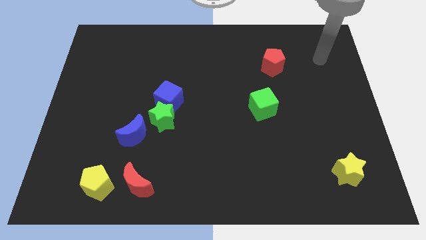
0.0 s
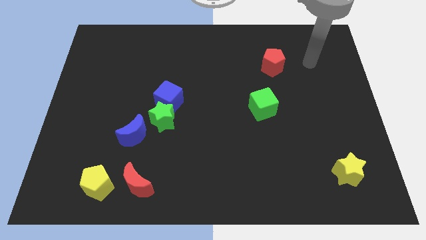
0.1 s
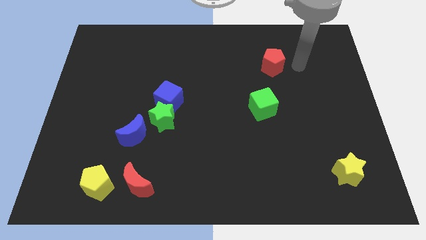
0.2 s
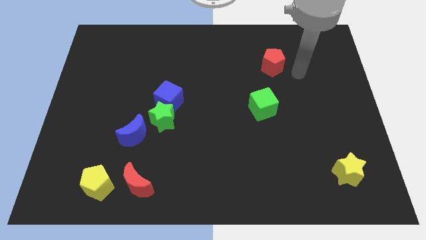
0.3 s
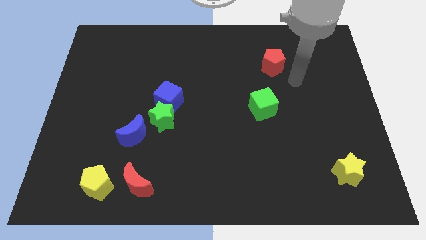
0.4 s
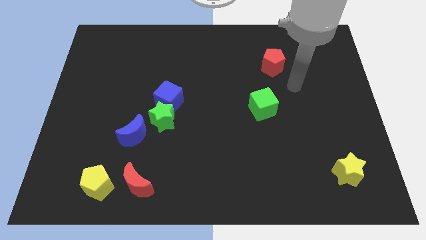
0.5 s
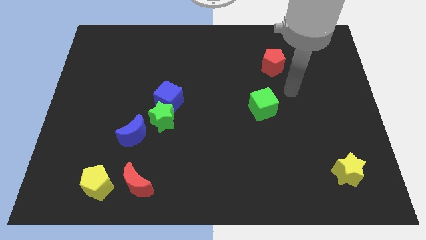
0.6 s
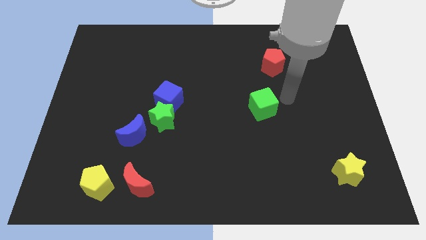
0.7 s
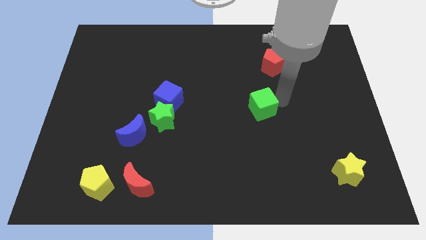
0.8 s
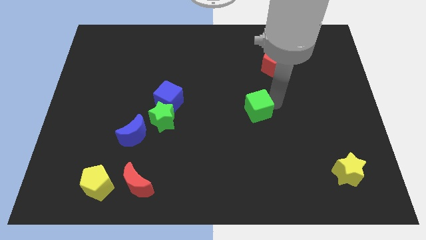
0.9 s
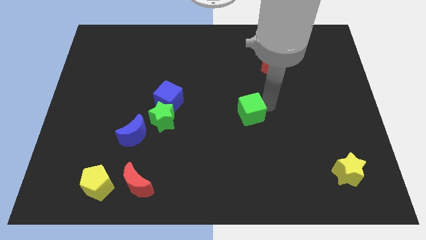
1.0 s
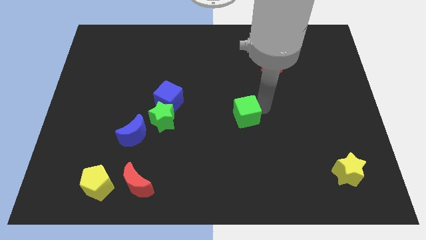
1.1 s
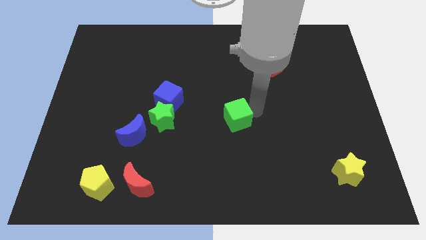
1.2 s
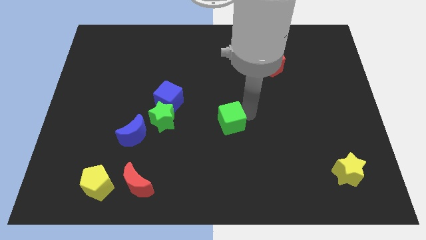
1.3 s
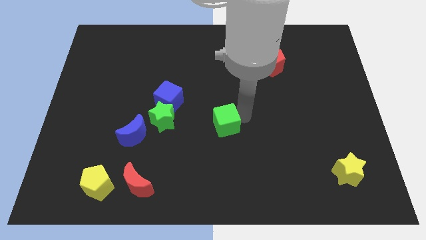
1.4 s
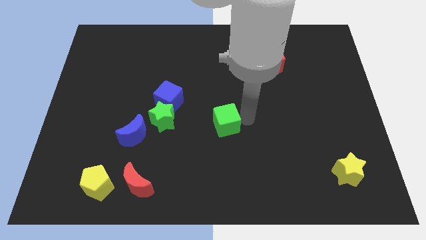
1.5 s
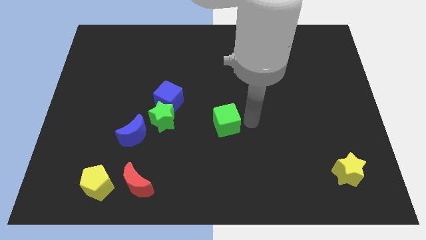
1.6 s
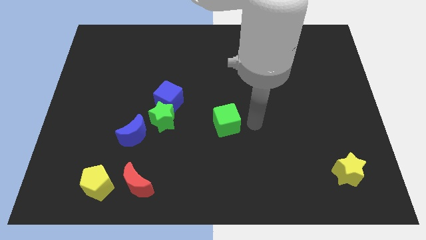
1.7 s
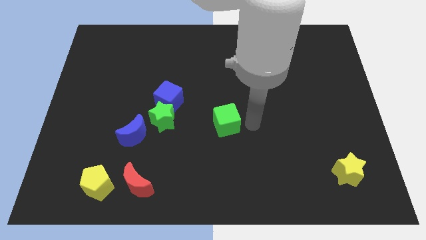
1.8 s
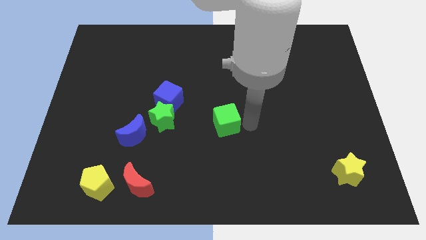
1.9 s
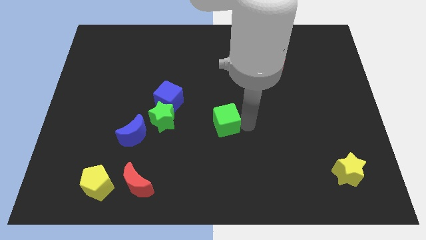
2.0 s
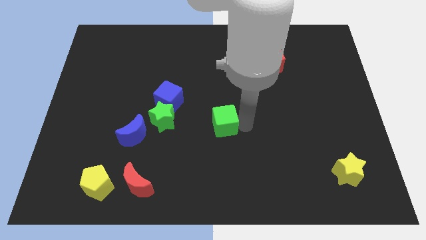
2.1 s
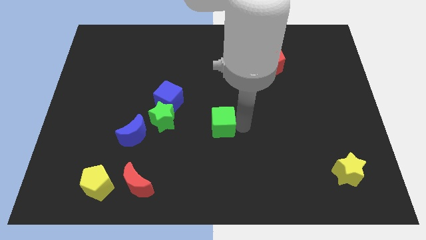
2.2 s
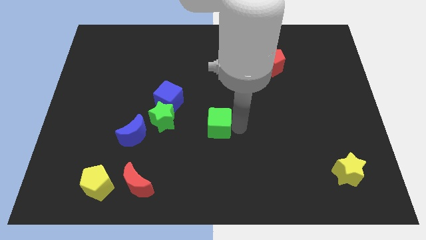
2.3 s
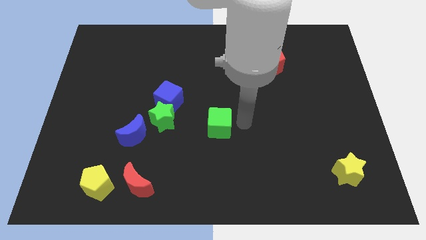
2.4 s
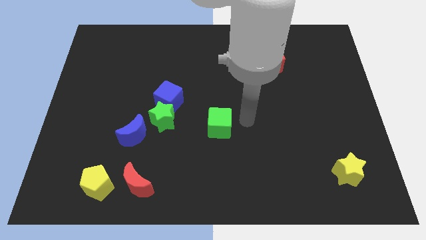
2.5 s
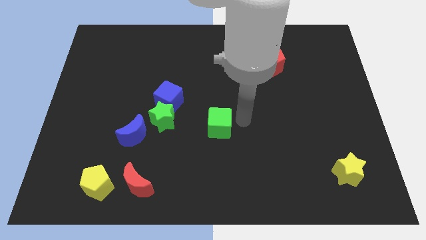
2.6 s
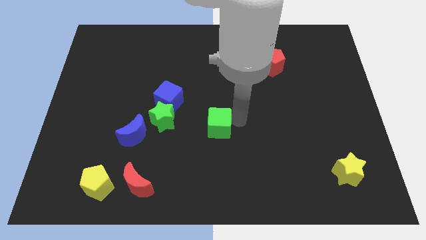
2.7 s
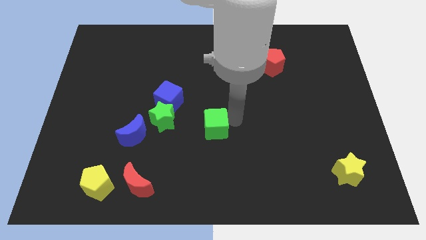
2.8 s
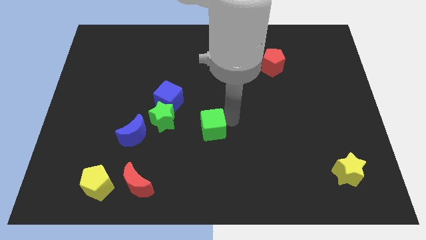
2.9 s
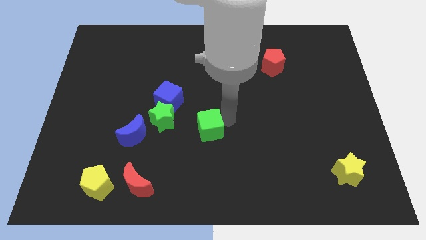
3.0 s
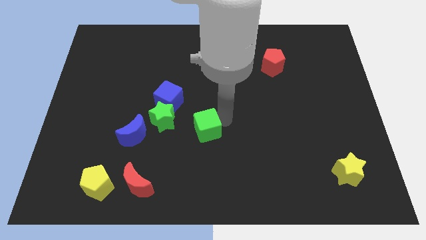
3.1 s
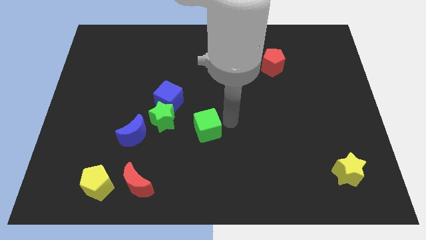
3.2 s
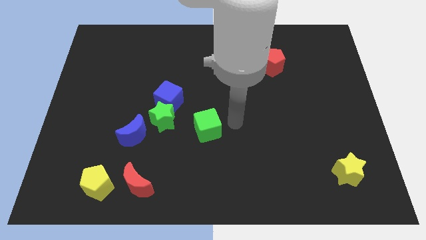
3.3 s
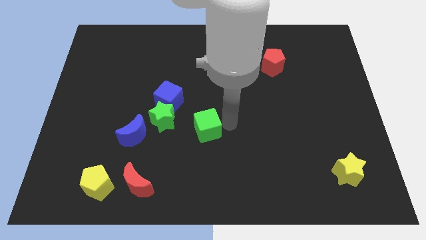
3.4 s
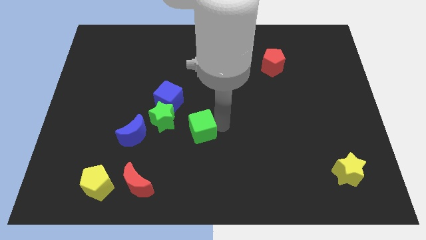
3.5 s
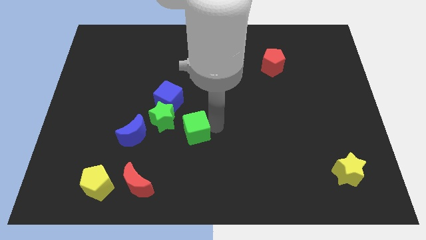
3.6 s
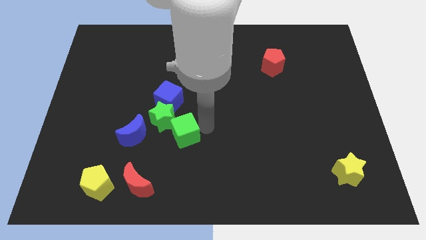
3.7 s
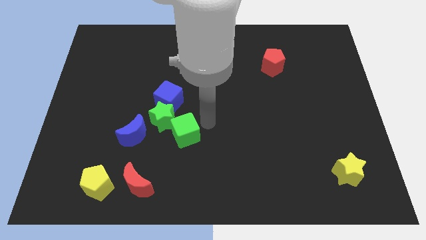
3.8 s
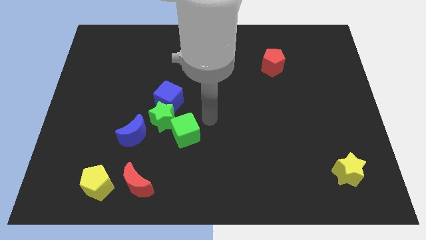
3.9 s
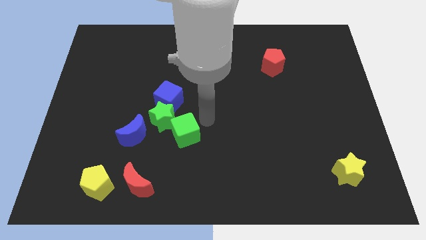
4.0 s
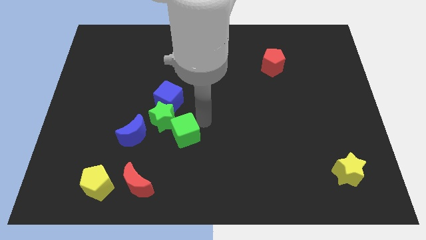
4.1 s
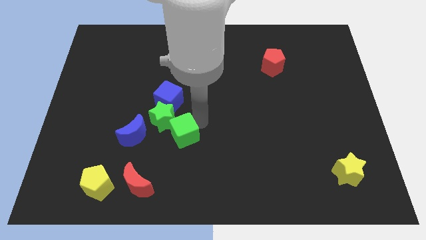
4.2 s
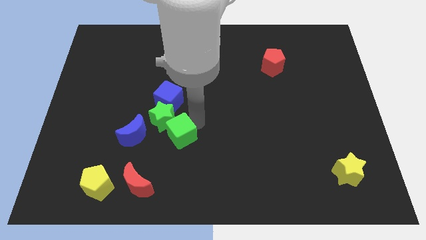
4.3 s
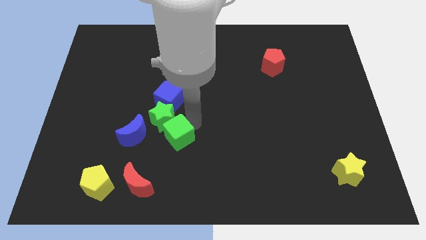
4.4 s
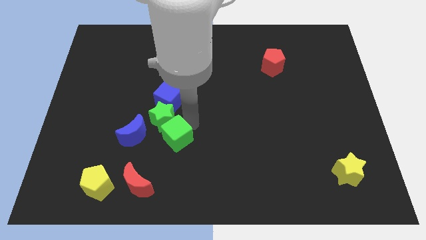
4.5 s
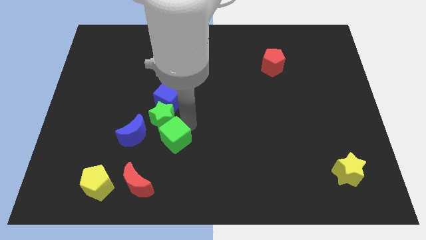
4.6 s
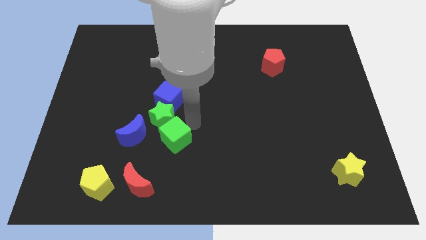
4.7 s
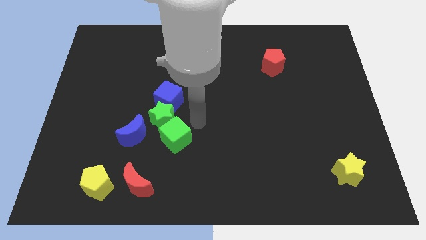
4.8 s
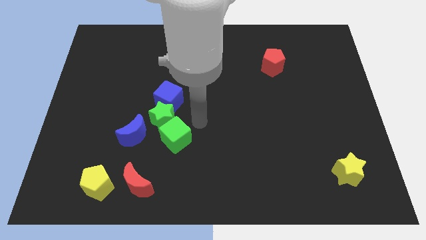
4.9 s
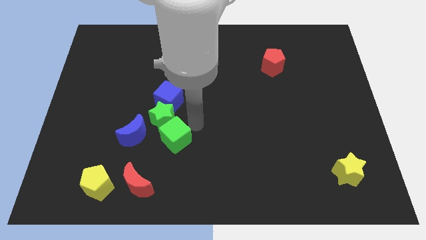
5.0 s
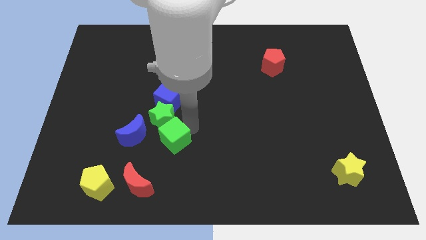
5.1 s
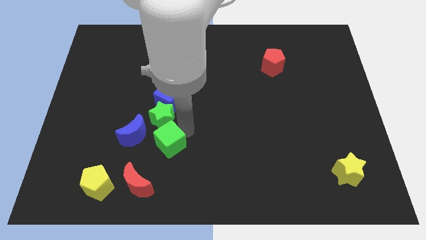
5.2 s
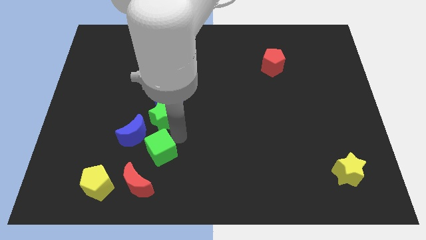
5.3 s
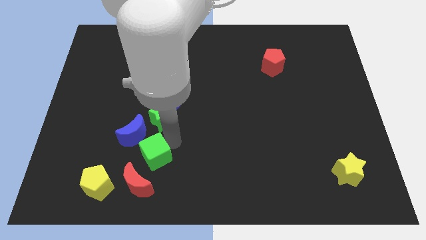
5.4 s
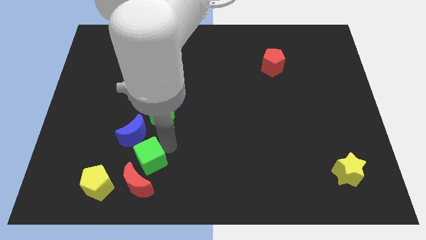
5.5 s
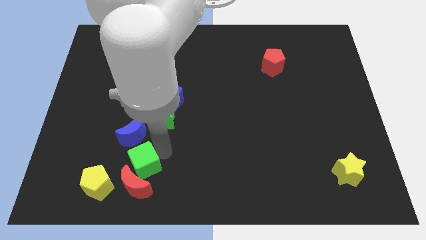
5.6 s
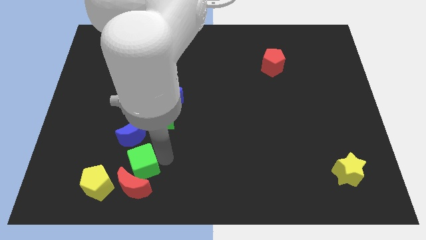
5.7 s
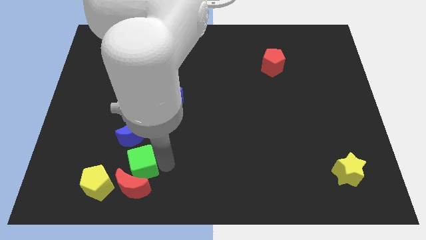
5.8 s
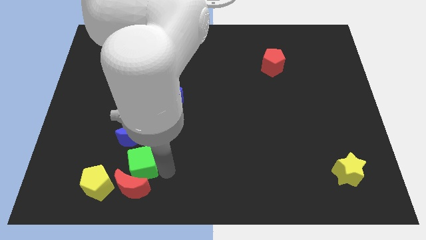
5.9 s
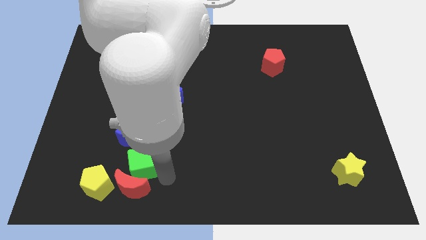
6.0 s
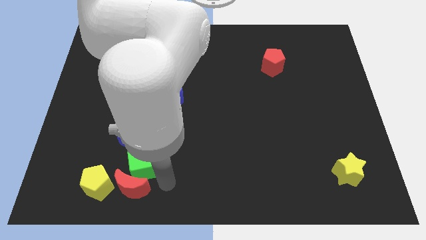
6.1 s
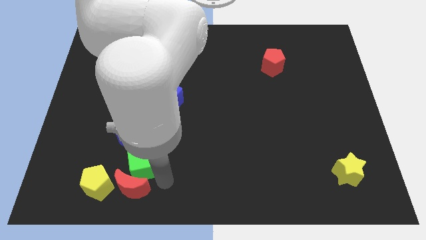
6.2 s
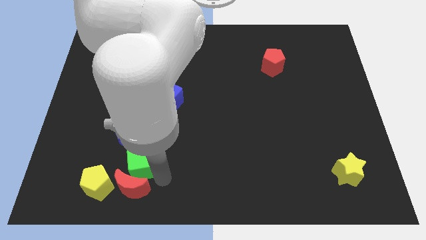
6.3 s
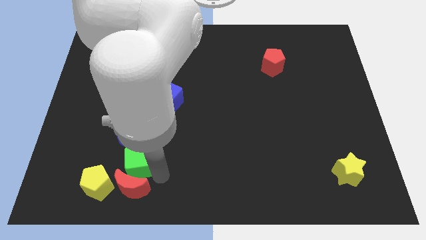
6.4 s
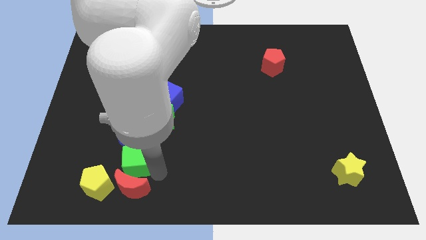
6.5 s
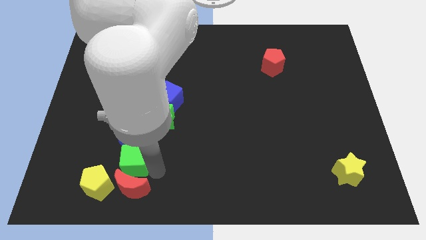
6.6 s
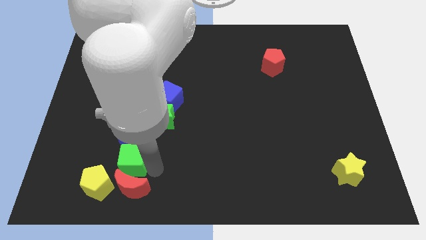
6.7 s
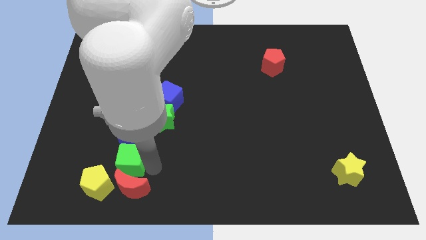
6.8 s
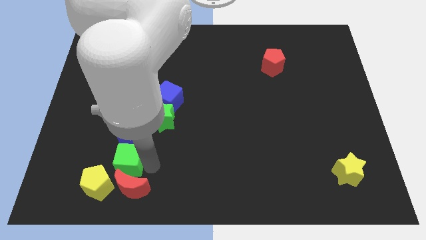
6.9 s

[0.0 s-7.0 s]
put the green cube to the bottom left of the green star

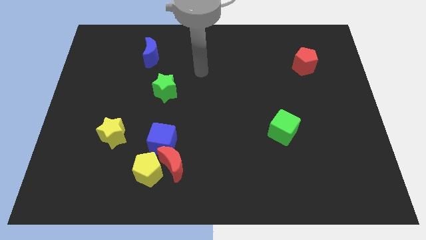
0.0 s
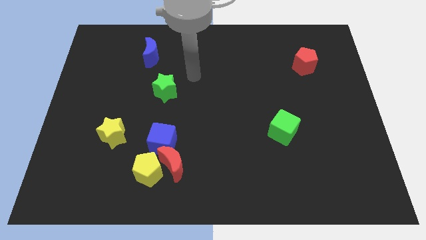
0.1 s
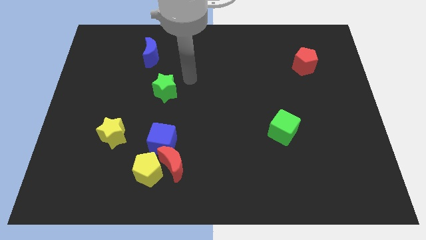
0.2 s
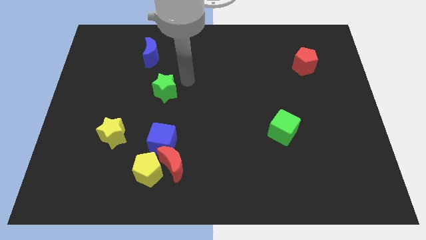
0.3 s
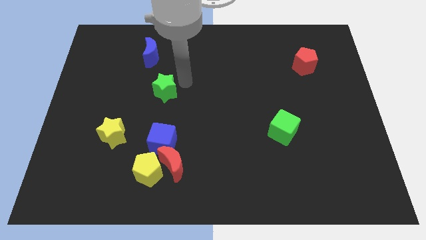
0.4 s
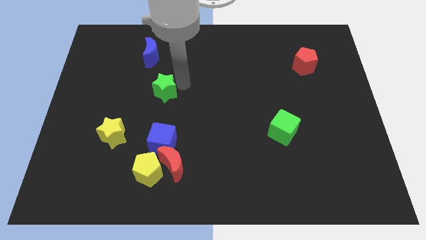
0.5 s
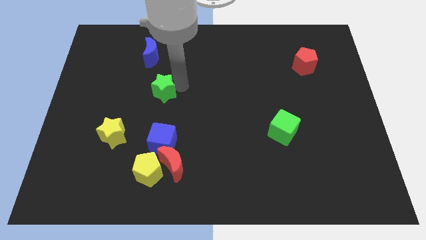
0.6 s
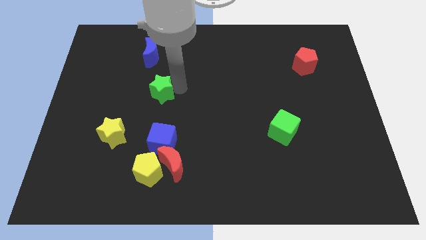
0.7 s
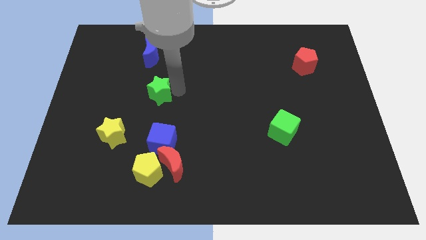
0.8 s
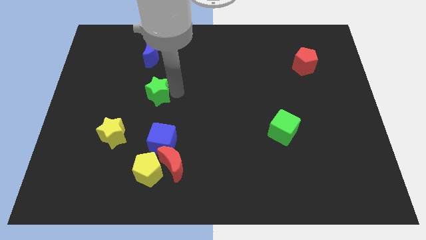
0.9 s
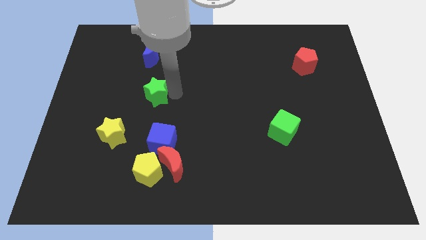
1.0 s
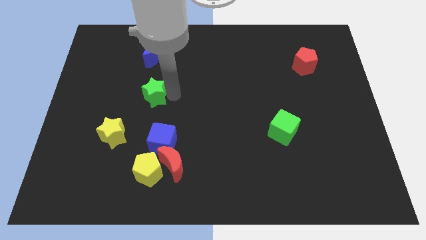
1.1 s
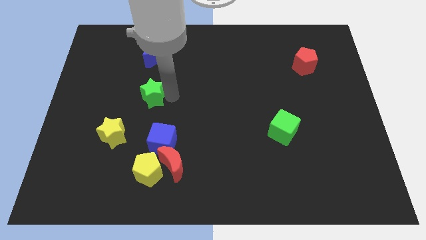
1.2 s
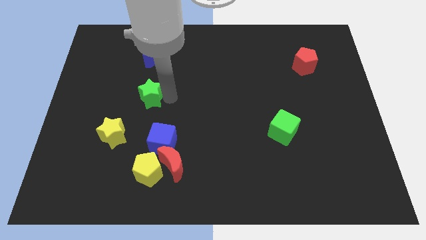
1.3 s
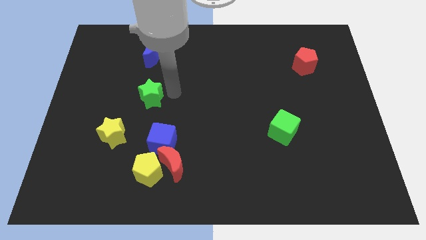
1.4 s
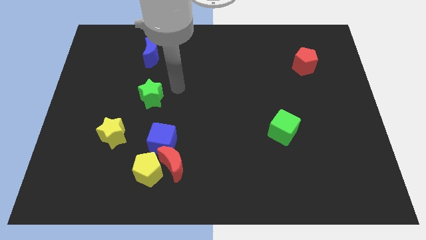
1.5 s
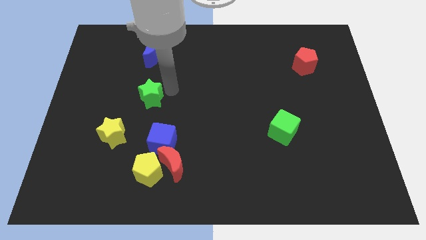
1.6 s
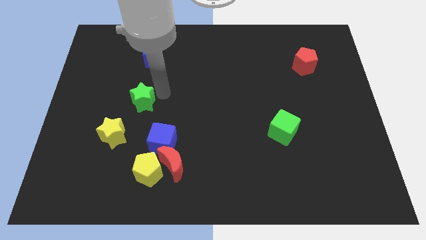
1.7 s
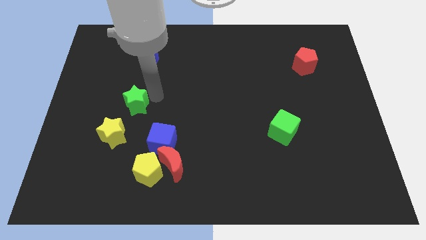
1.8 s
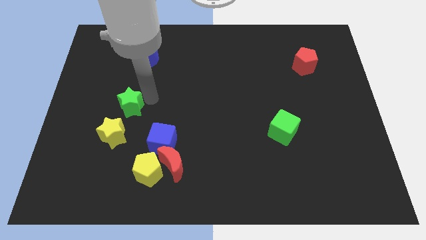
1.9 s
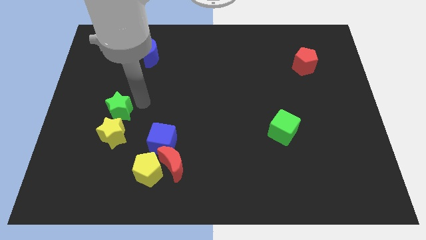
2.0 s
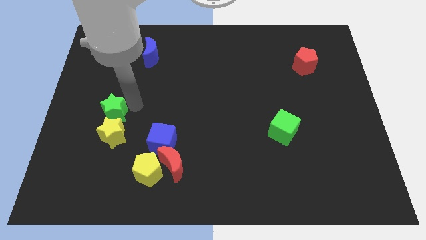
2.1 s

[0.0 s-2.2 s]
slide the green star diagonally up and to the left of the yellow star
